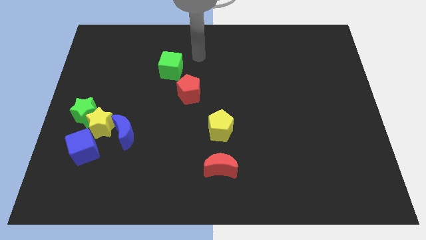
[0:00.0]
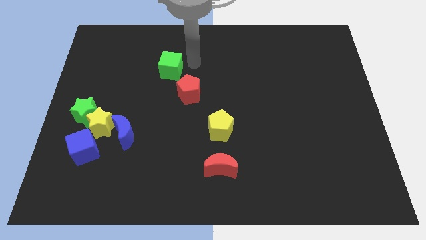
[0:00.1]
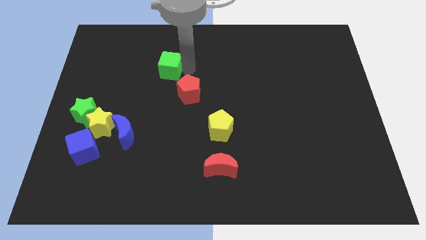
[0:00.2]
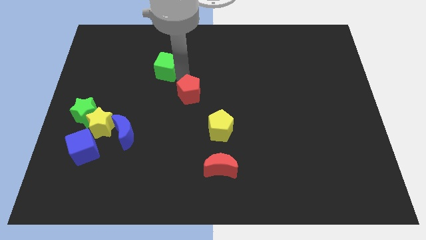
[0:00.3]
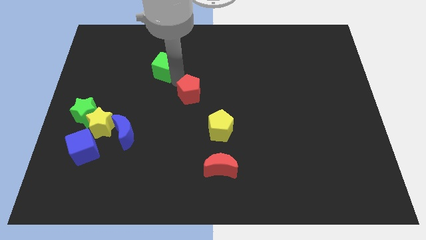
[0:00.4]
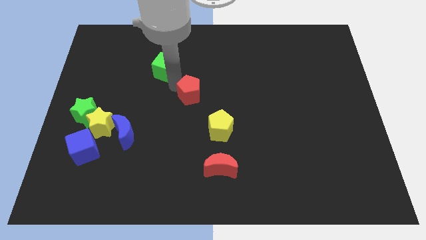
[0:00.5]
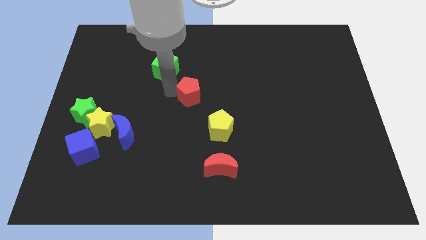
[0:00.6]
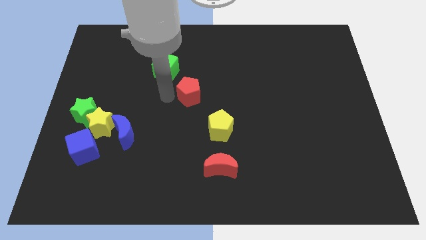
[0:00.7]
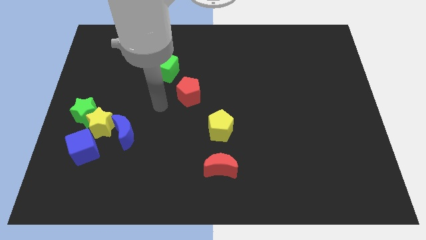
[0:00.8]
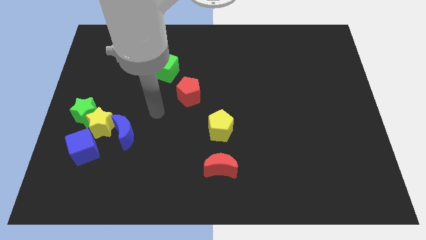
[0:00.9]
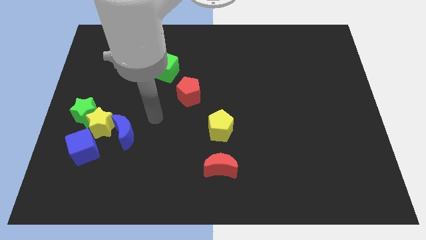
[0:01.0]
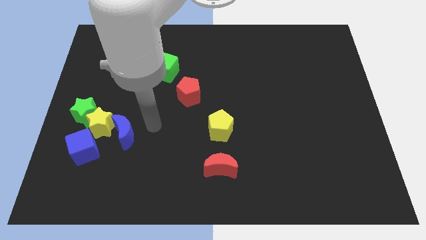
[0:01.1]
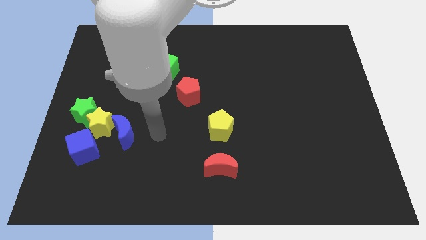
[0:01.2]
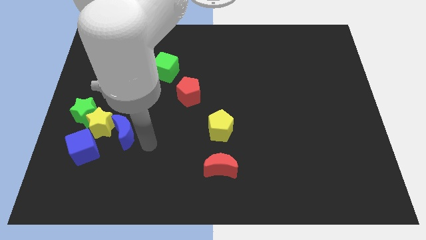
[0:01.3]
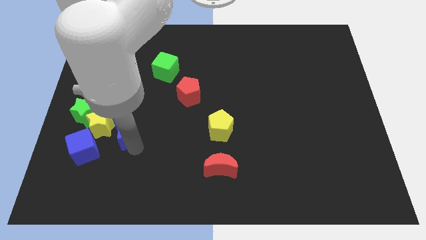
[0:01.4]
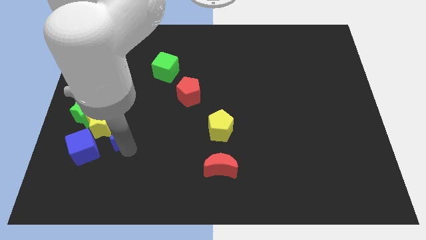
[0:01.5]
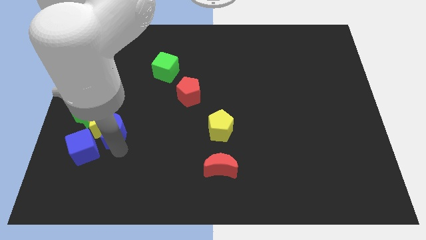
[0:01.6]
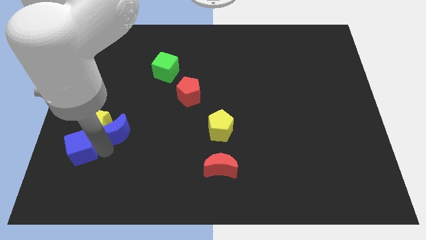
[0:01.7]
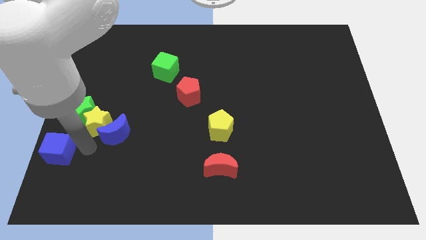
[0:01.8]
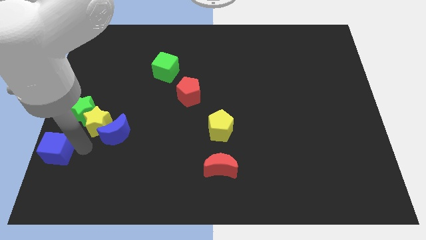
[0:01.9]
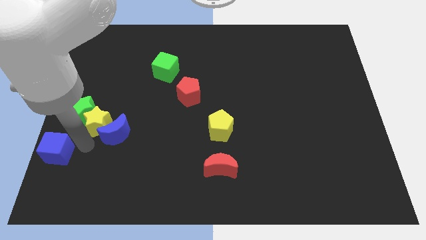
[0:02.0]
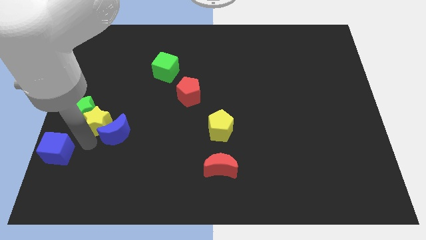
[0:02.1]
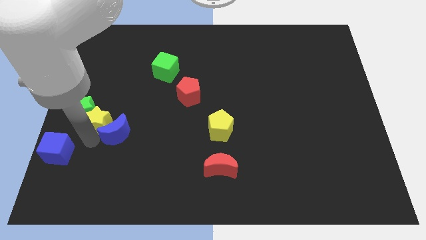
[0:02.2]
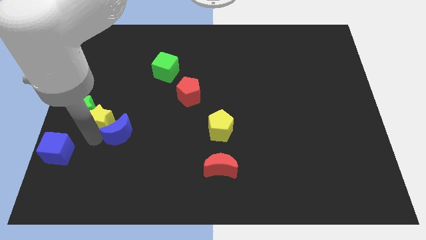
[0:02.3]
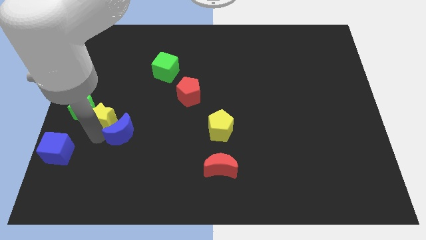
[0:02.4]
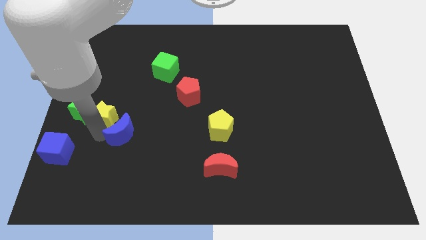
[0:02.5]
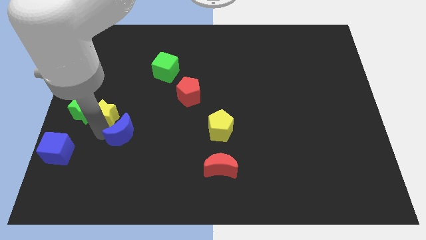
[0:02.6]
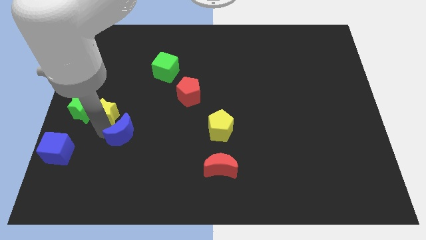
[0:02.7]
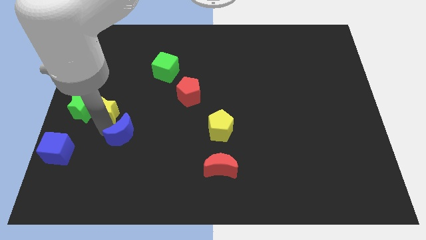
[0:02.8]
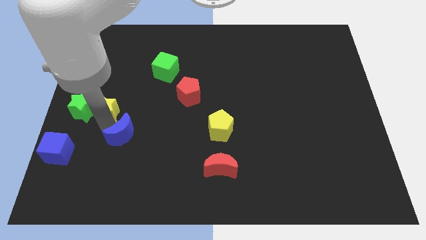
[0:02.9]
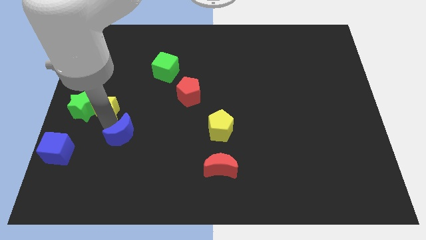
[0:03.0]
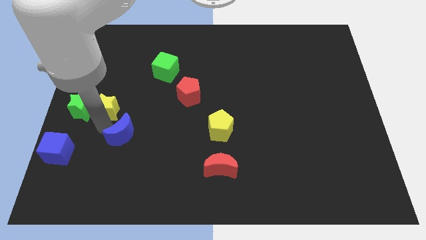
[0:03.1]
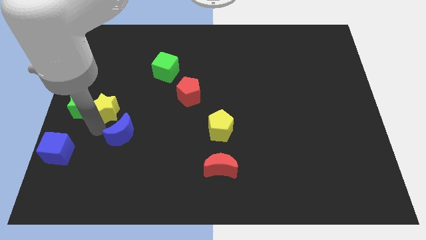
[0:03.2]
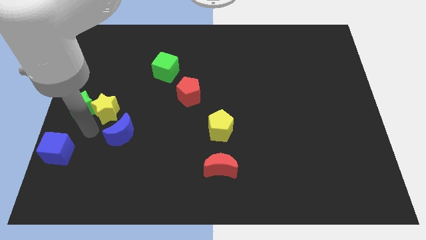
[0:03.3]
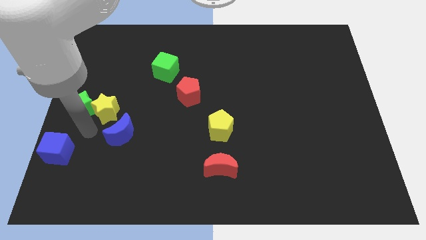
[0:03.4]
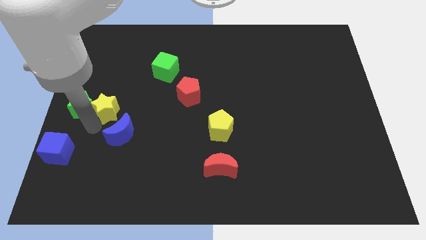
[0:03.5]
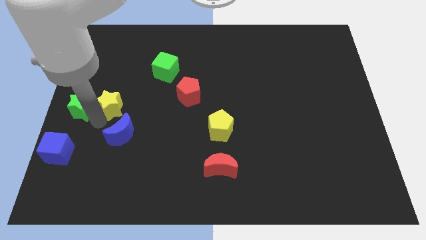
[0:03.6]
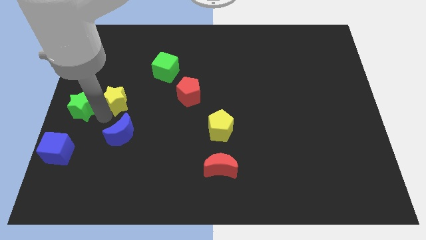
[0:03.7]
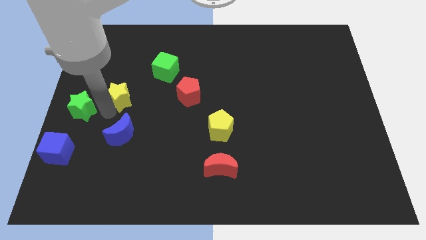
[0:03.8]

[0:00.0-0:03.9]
move the yellow star away from the green star, blue moon, and blue cube

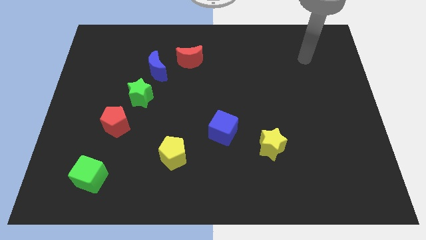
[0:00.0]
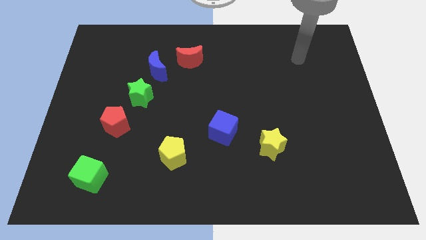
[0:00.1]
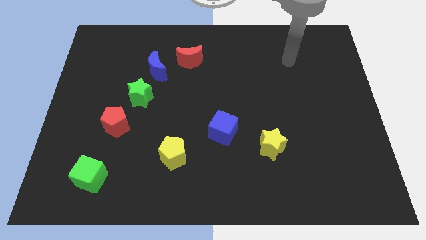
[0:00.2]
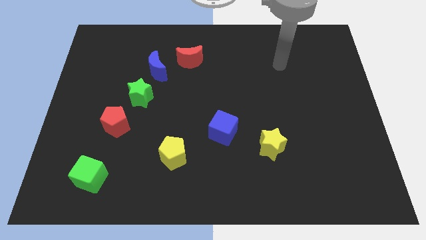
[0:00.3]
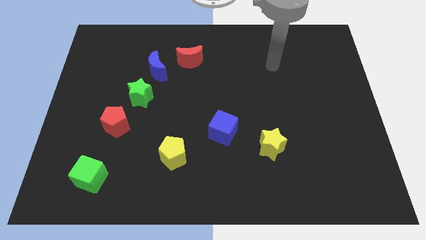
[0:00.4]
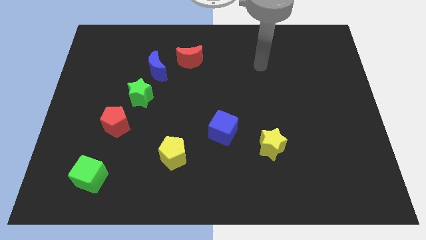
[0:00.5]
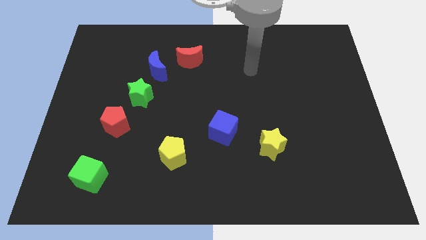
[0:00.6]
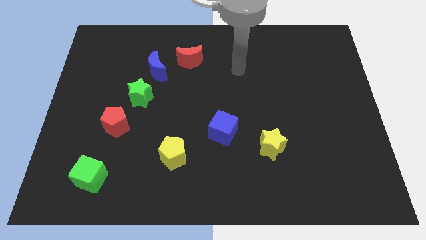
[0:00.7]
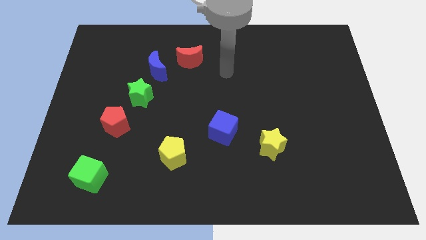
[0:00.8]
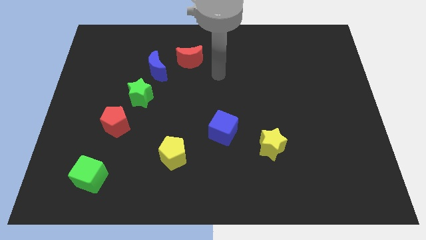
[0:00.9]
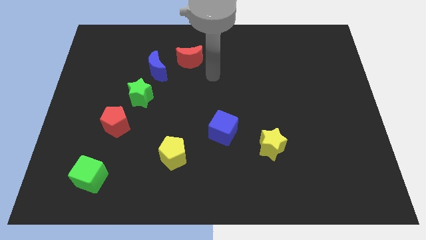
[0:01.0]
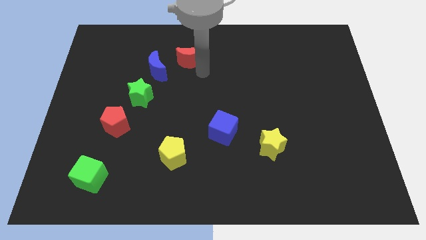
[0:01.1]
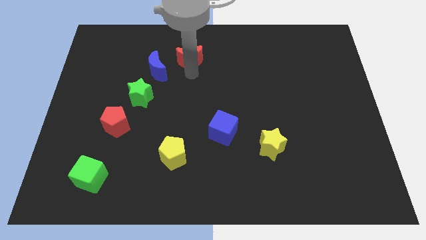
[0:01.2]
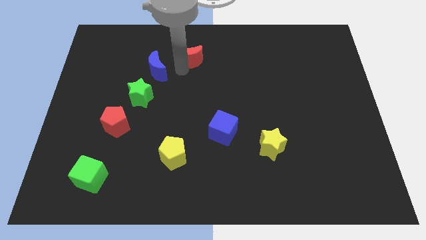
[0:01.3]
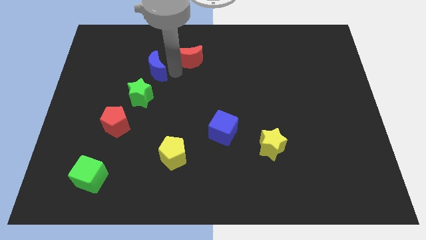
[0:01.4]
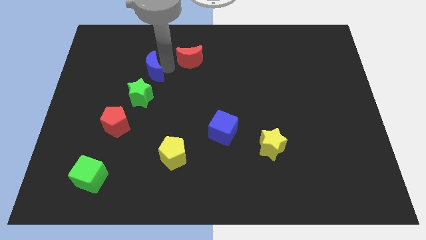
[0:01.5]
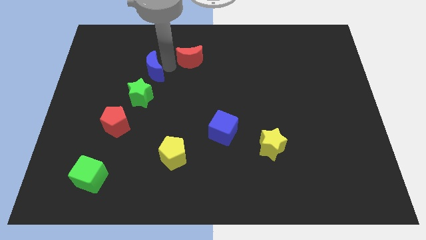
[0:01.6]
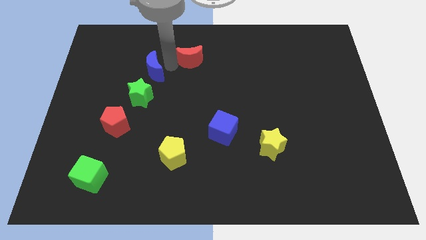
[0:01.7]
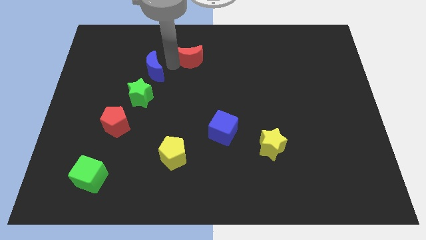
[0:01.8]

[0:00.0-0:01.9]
move the red moon away from the blue moon

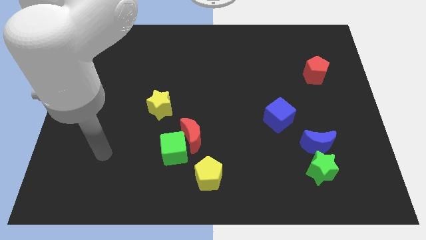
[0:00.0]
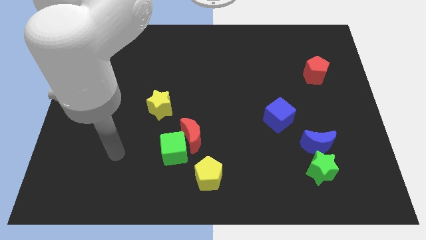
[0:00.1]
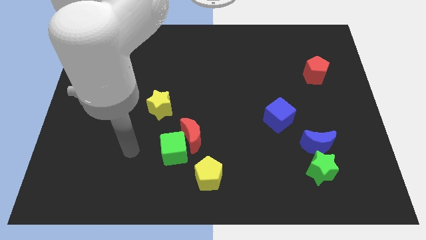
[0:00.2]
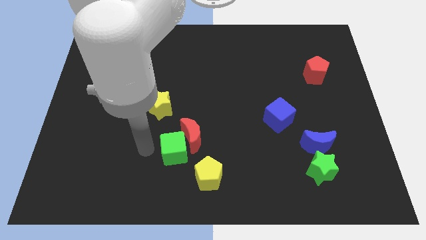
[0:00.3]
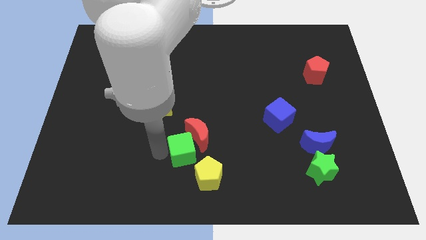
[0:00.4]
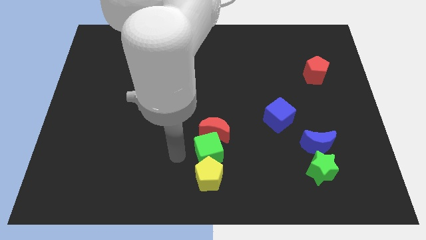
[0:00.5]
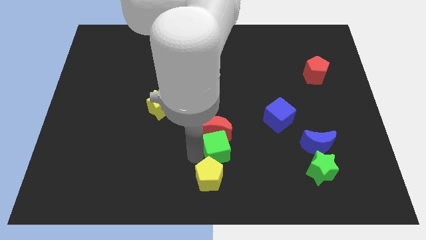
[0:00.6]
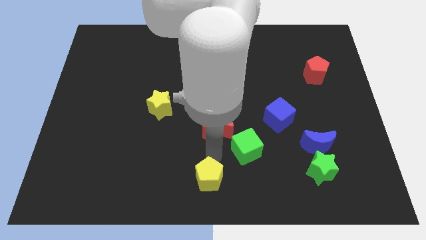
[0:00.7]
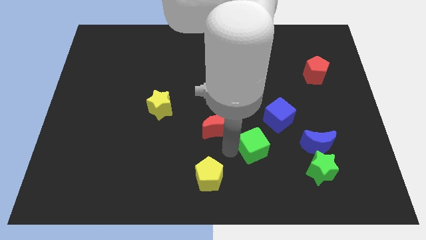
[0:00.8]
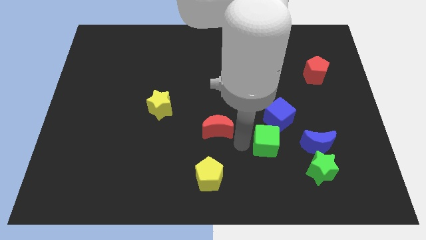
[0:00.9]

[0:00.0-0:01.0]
move the red moon away from the green cube

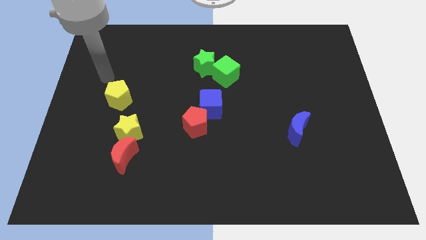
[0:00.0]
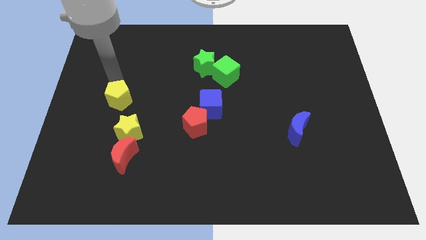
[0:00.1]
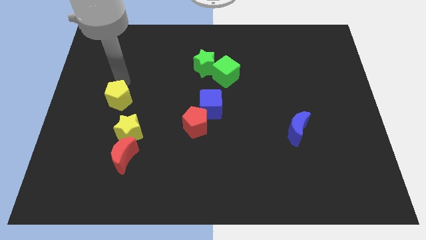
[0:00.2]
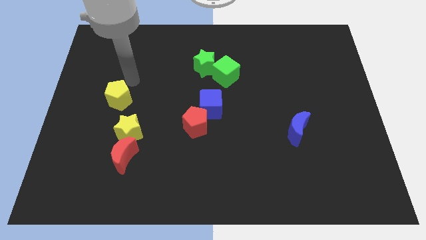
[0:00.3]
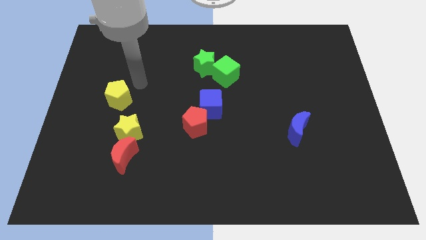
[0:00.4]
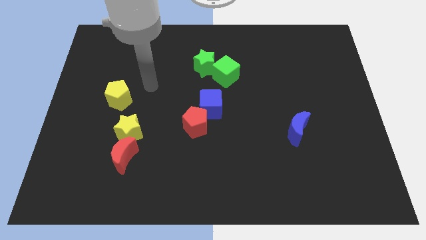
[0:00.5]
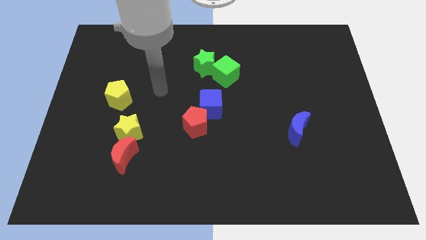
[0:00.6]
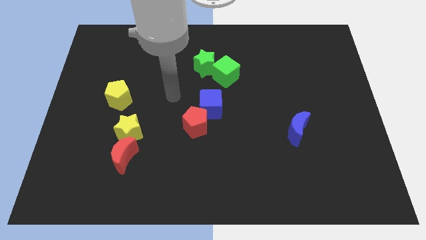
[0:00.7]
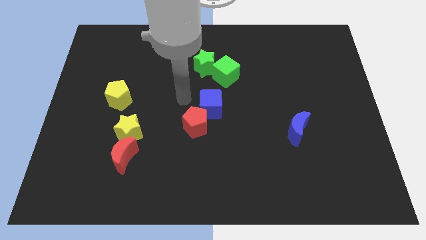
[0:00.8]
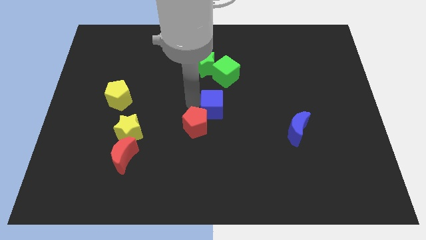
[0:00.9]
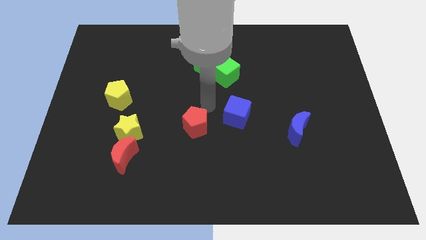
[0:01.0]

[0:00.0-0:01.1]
pull the red pentagon apart from the blue cube

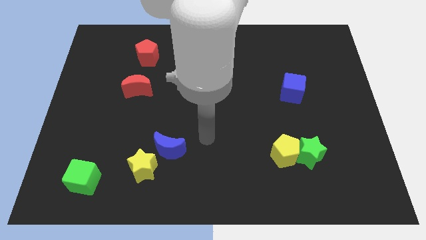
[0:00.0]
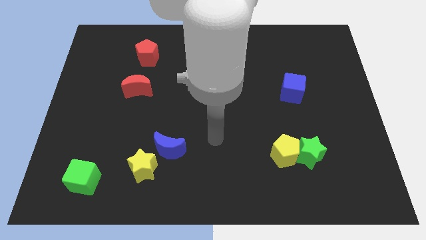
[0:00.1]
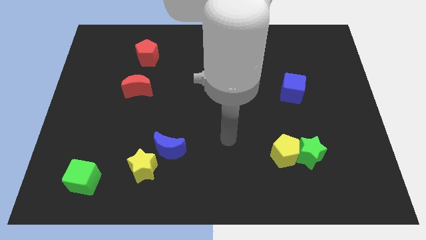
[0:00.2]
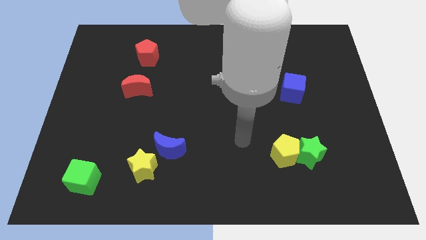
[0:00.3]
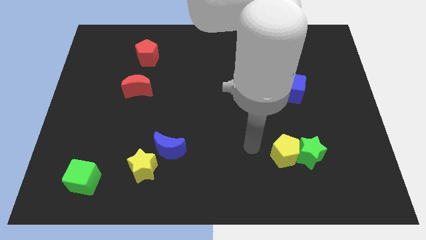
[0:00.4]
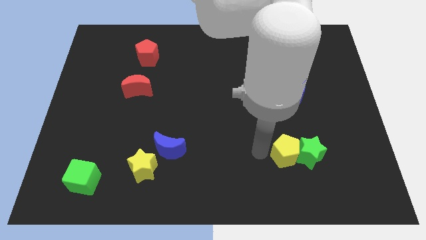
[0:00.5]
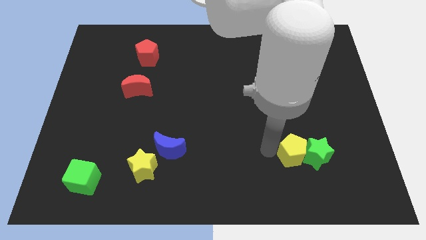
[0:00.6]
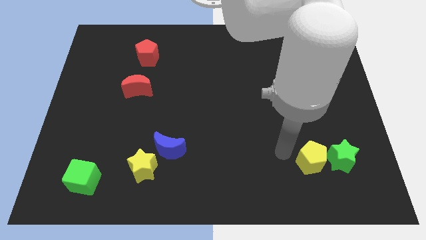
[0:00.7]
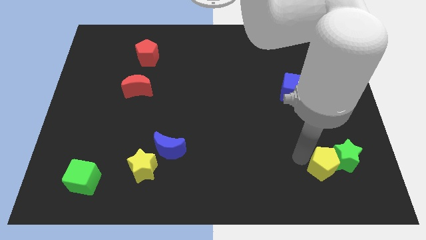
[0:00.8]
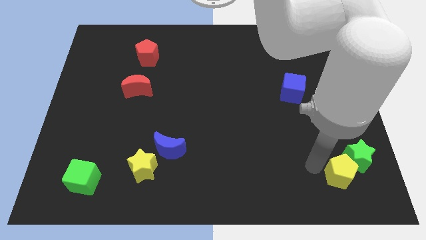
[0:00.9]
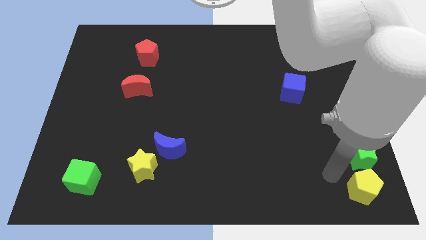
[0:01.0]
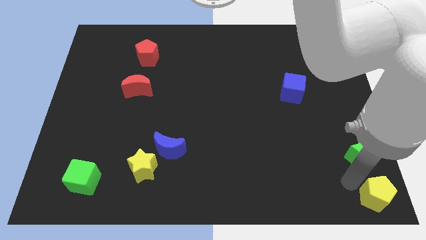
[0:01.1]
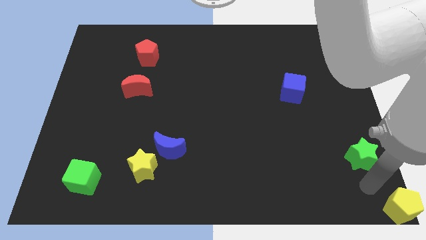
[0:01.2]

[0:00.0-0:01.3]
move the green star away from the yellow pentagon
